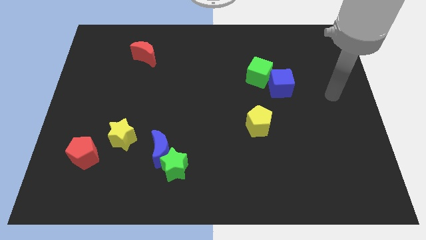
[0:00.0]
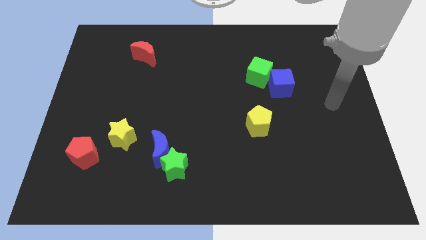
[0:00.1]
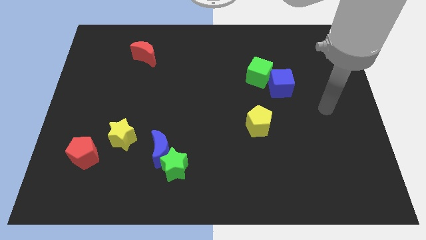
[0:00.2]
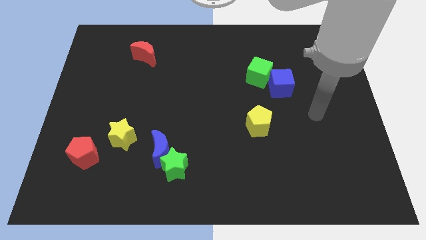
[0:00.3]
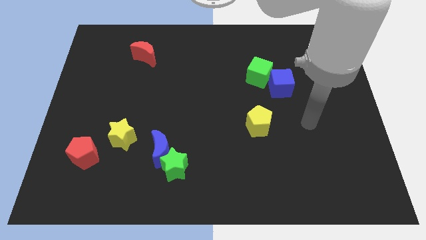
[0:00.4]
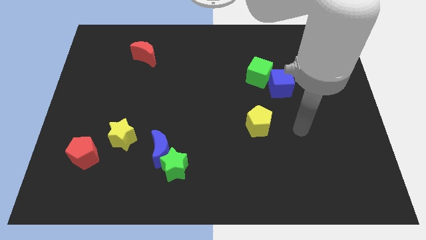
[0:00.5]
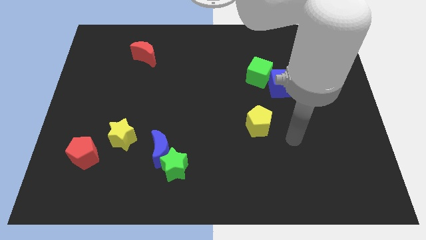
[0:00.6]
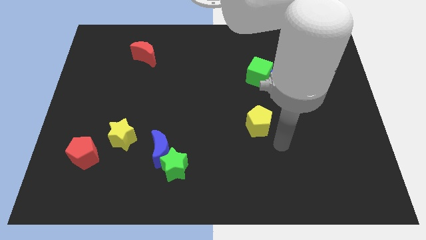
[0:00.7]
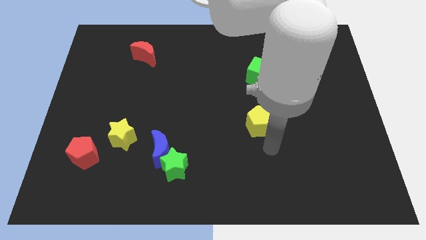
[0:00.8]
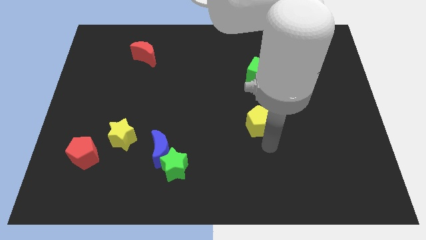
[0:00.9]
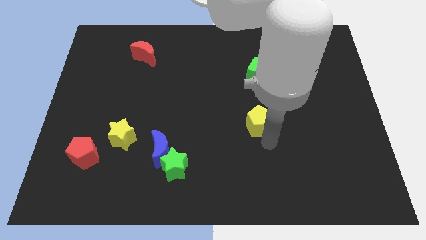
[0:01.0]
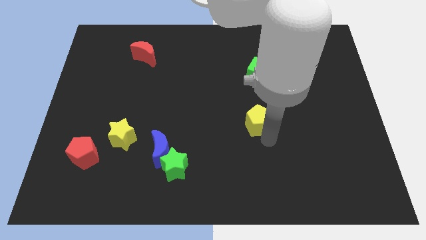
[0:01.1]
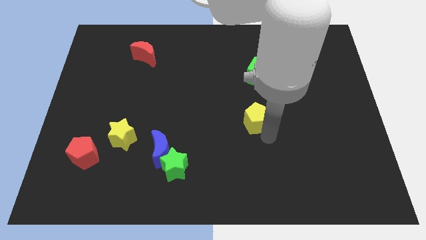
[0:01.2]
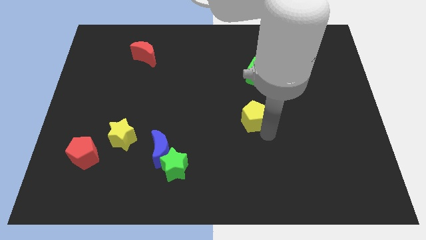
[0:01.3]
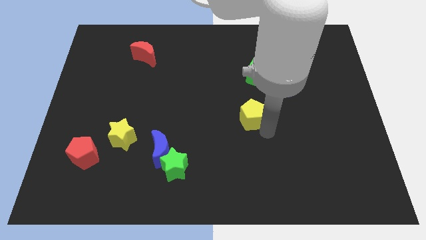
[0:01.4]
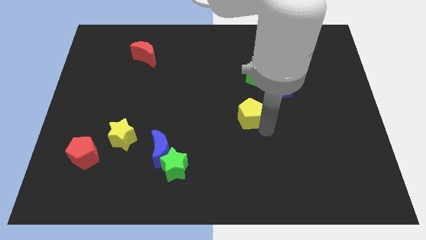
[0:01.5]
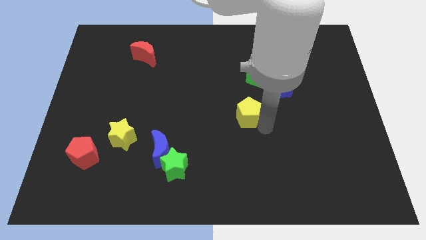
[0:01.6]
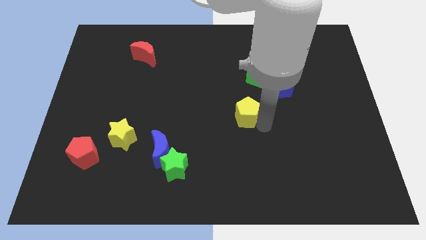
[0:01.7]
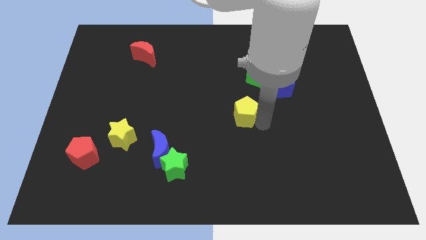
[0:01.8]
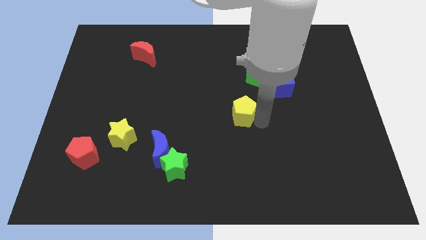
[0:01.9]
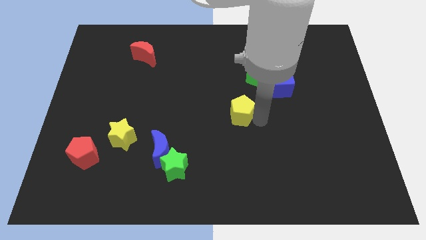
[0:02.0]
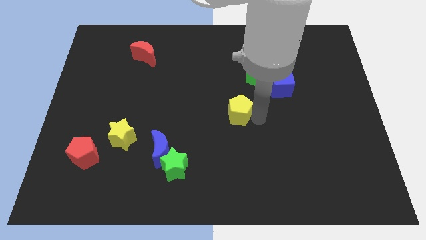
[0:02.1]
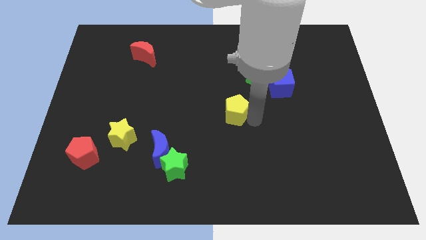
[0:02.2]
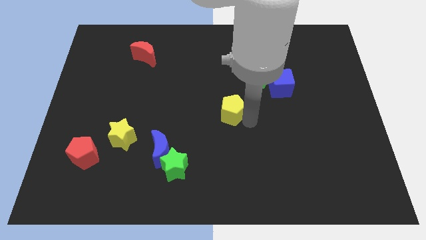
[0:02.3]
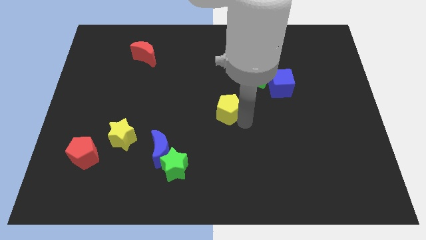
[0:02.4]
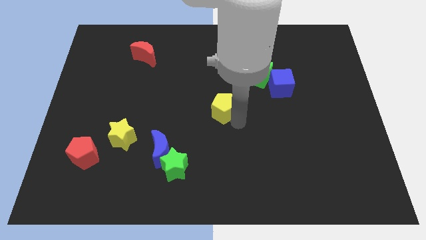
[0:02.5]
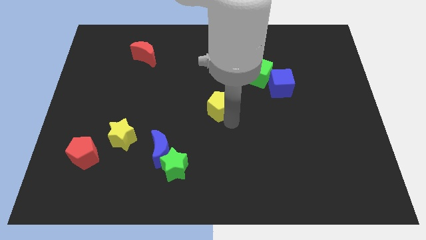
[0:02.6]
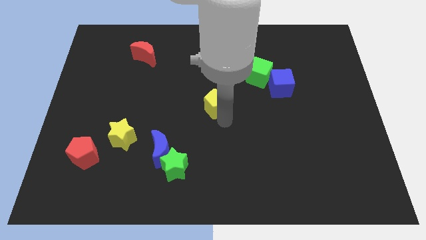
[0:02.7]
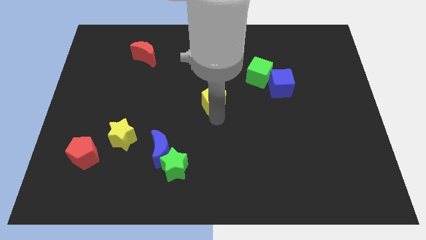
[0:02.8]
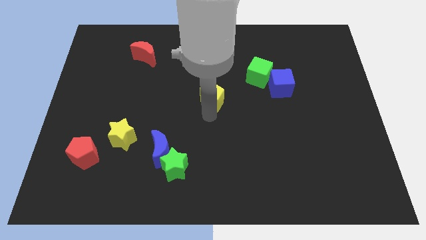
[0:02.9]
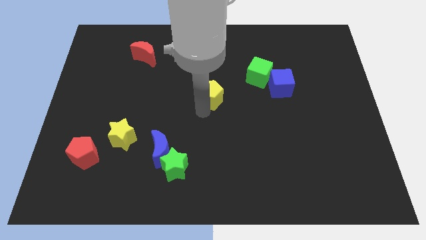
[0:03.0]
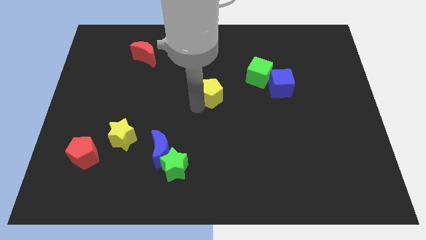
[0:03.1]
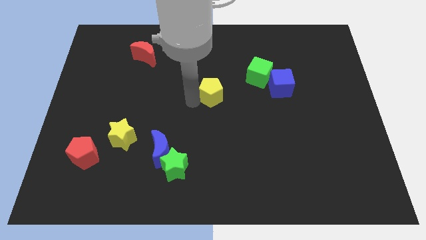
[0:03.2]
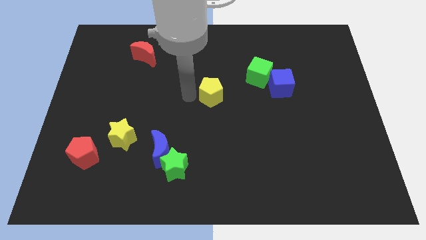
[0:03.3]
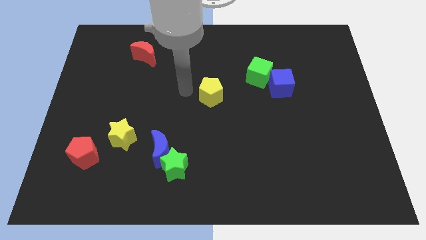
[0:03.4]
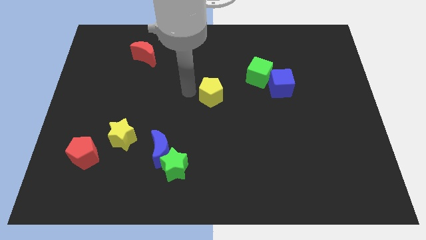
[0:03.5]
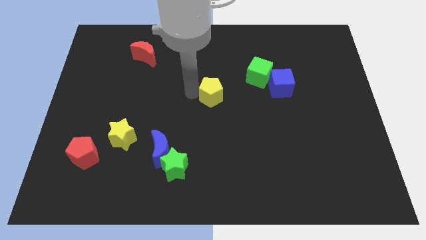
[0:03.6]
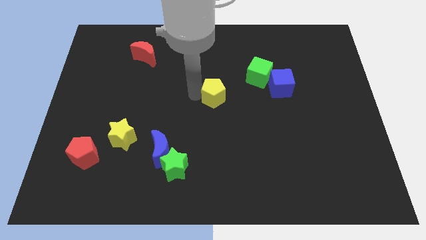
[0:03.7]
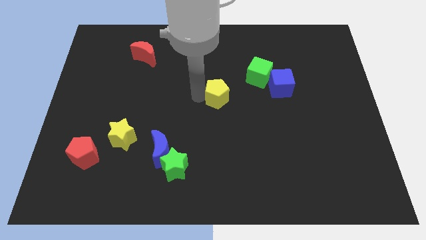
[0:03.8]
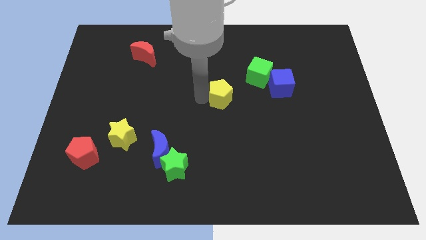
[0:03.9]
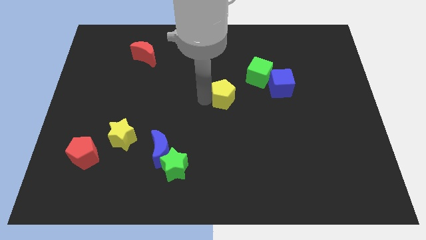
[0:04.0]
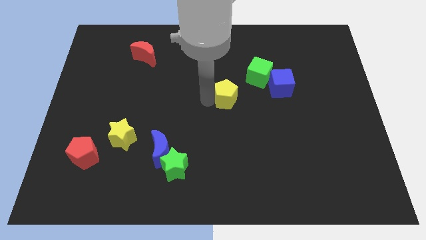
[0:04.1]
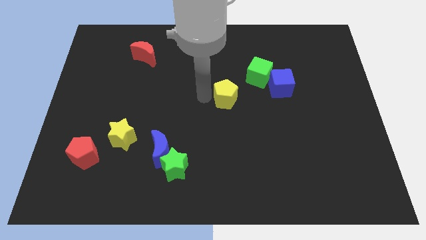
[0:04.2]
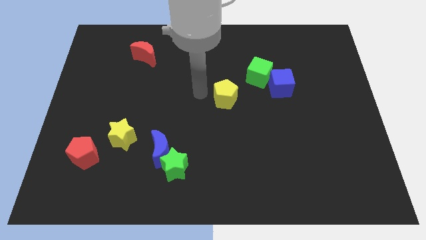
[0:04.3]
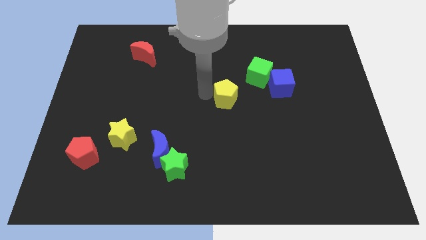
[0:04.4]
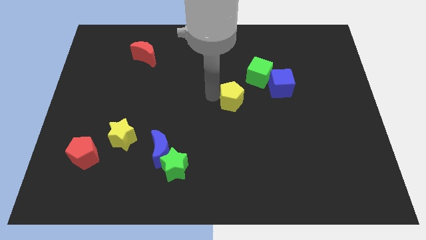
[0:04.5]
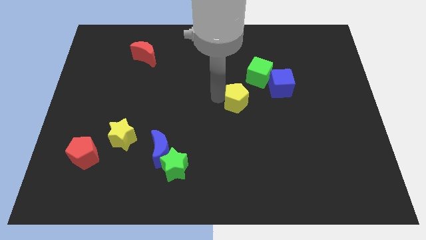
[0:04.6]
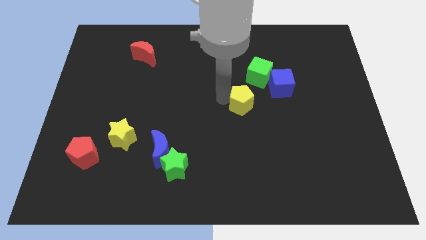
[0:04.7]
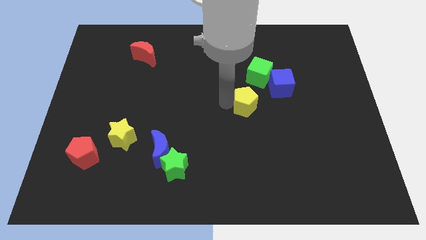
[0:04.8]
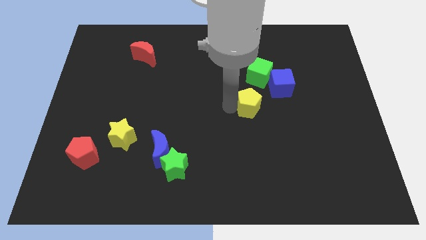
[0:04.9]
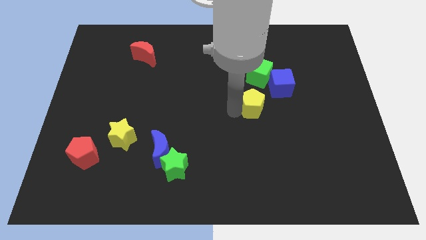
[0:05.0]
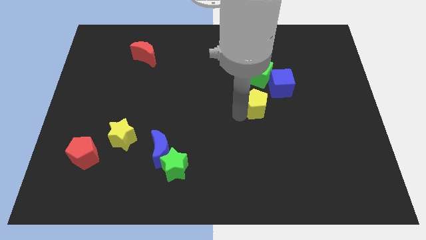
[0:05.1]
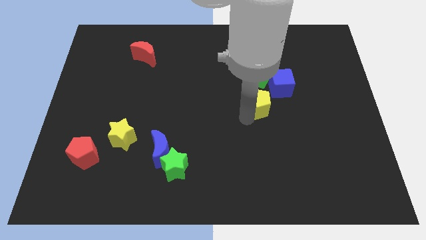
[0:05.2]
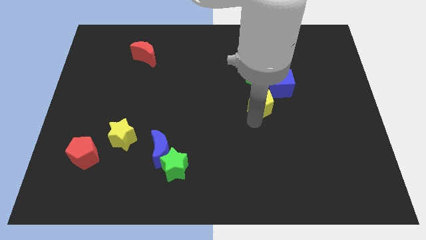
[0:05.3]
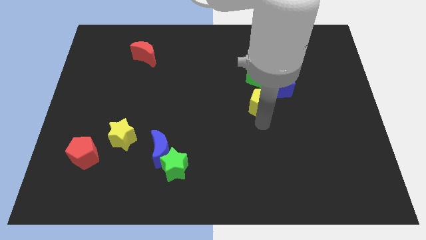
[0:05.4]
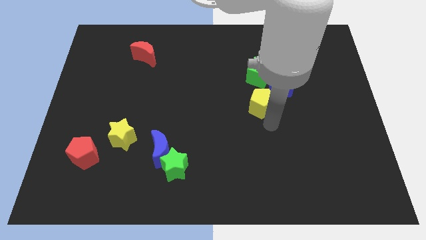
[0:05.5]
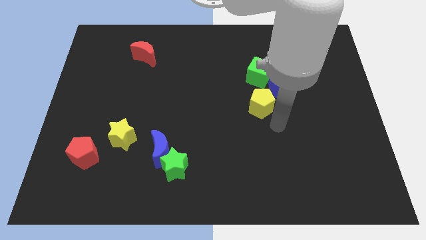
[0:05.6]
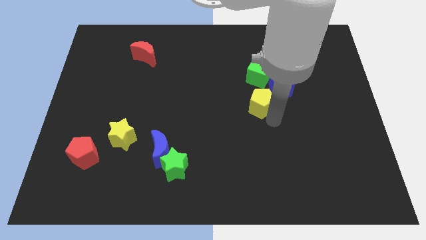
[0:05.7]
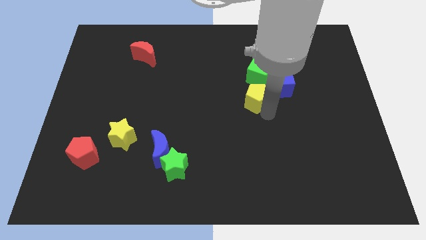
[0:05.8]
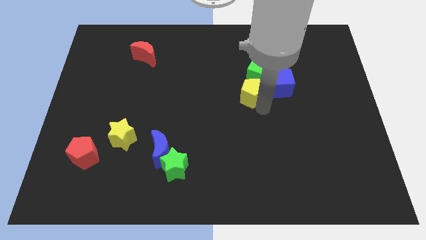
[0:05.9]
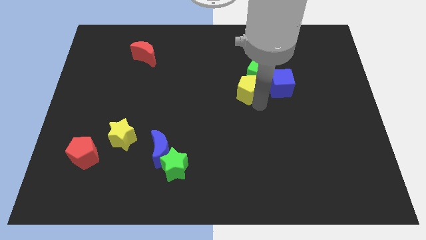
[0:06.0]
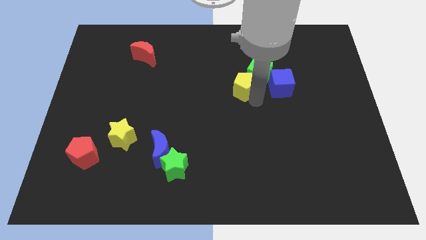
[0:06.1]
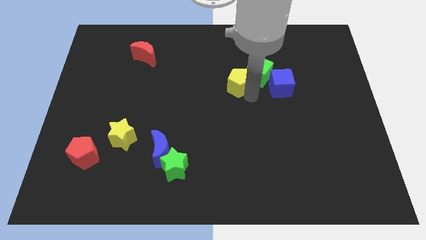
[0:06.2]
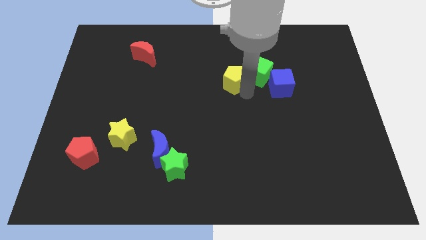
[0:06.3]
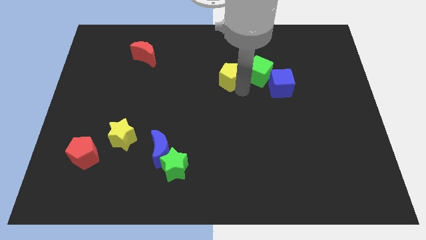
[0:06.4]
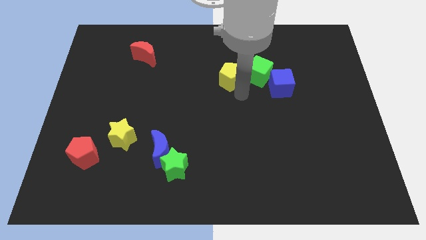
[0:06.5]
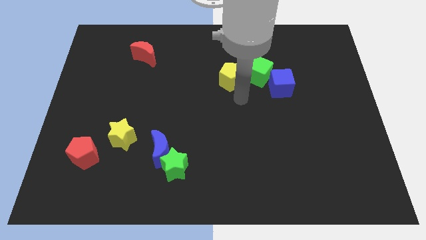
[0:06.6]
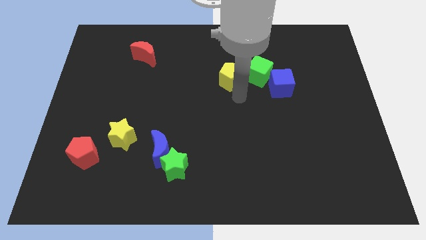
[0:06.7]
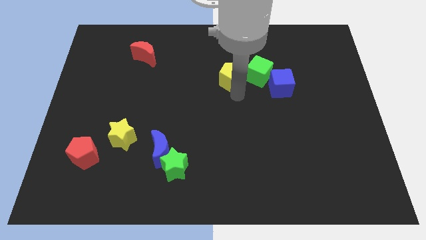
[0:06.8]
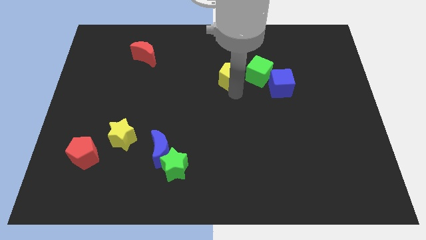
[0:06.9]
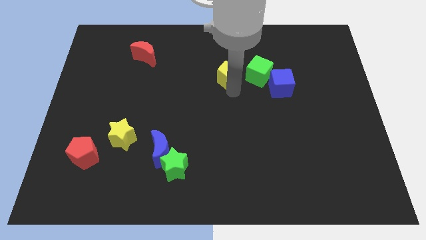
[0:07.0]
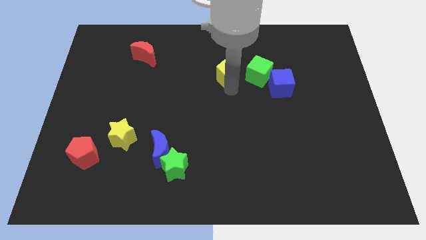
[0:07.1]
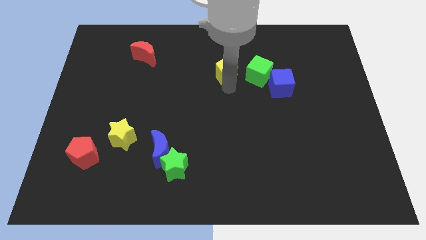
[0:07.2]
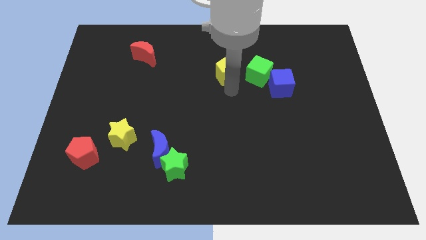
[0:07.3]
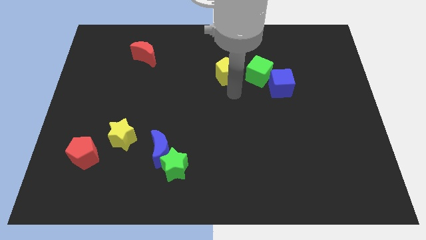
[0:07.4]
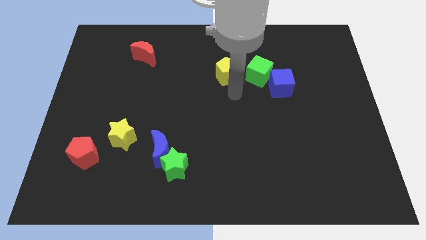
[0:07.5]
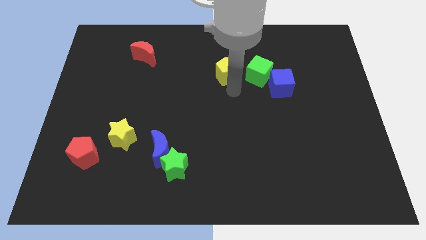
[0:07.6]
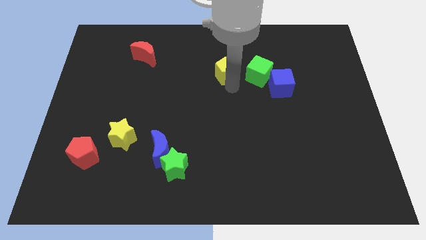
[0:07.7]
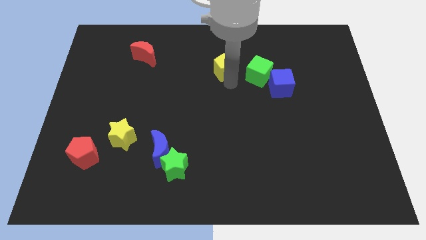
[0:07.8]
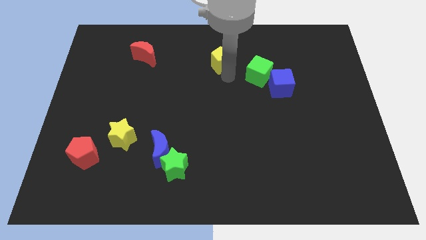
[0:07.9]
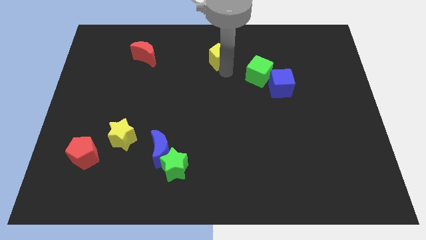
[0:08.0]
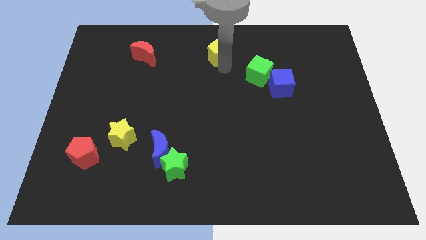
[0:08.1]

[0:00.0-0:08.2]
put the yellow pentagon to the towards your base
